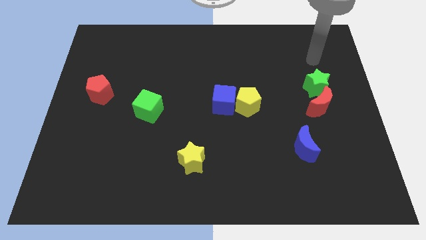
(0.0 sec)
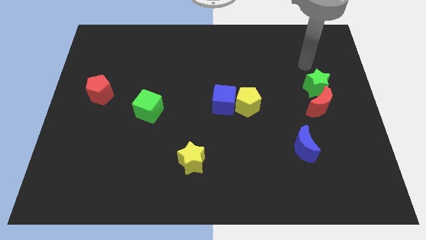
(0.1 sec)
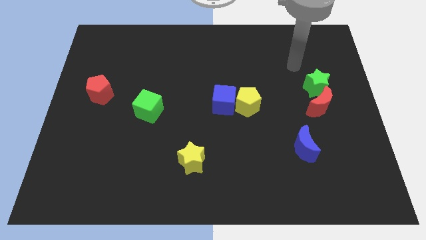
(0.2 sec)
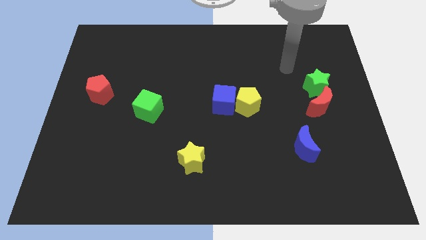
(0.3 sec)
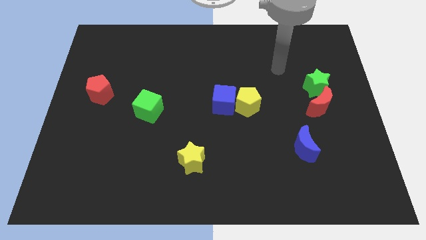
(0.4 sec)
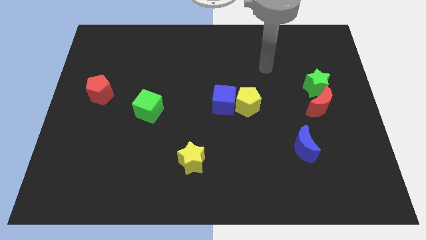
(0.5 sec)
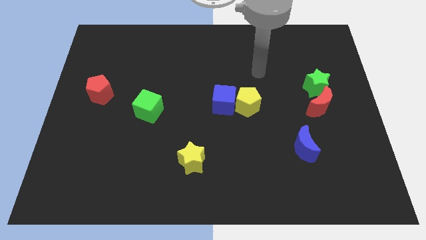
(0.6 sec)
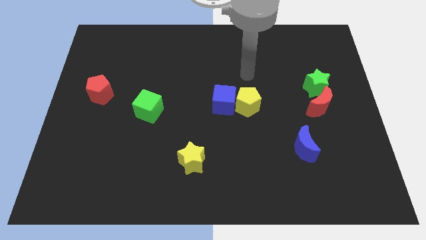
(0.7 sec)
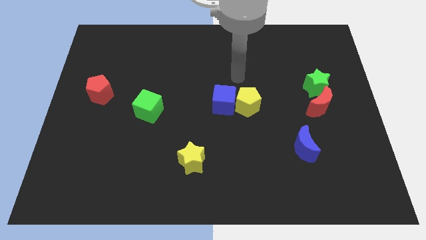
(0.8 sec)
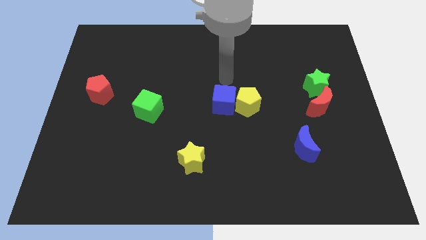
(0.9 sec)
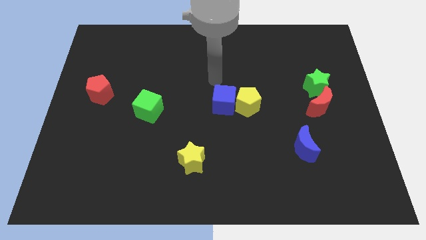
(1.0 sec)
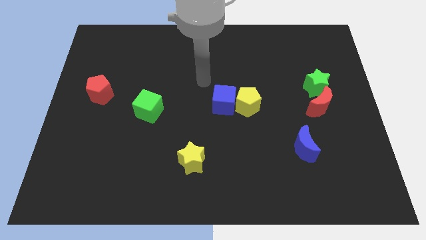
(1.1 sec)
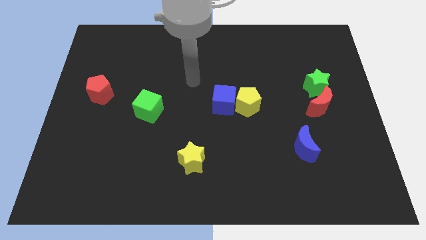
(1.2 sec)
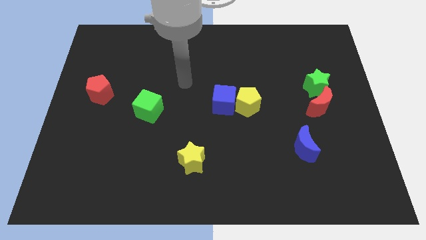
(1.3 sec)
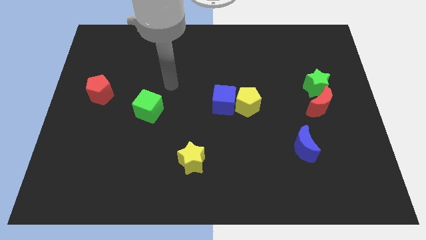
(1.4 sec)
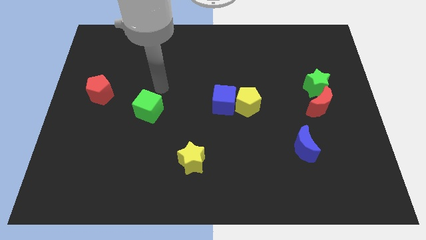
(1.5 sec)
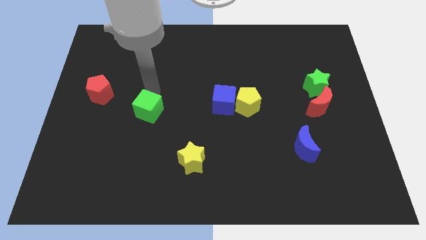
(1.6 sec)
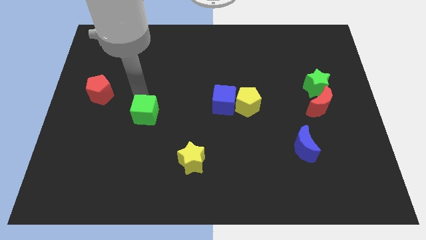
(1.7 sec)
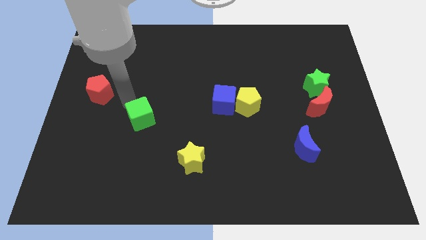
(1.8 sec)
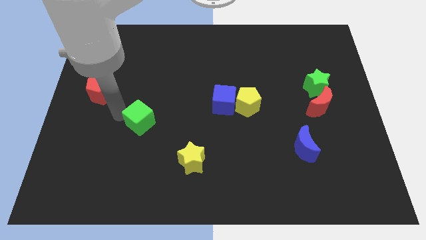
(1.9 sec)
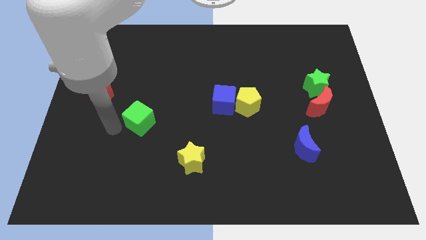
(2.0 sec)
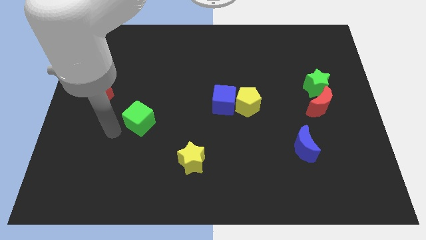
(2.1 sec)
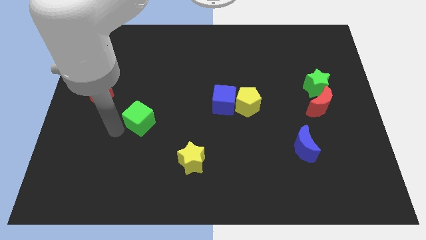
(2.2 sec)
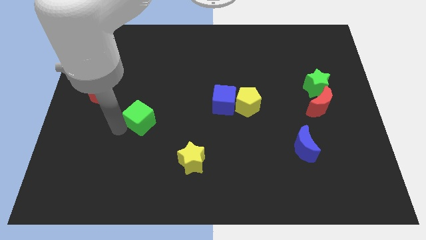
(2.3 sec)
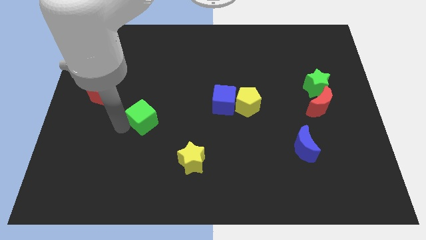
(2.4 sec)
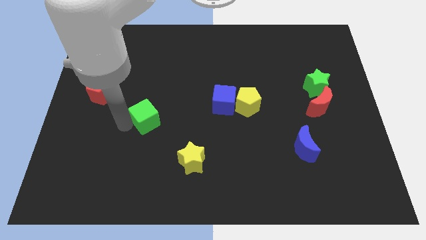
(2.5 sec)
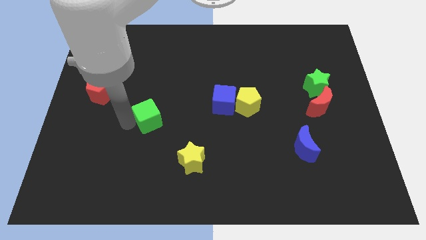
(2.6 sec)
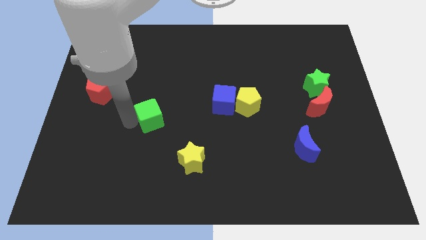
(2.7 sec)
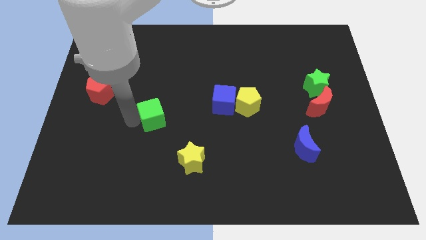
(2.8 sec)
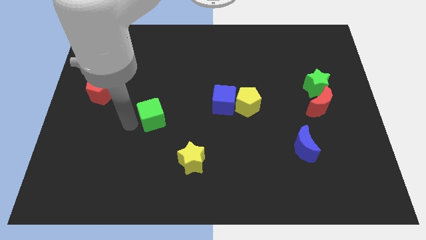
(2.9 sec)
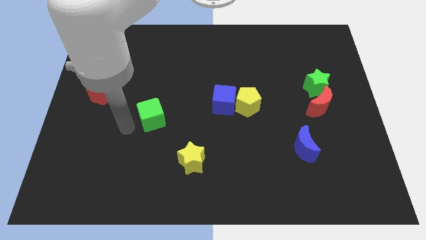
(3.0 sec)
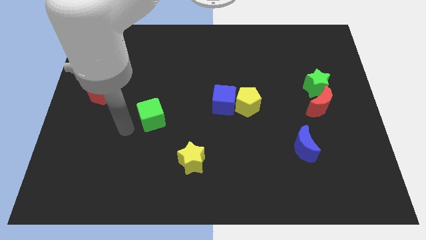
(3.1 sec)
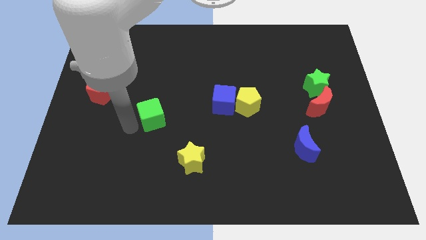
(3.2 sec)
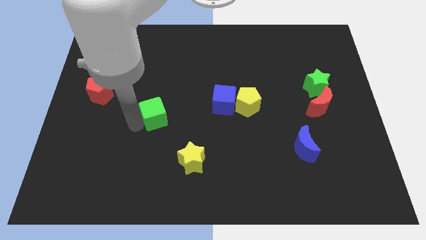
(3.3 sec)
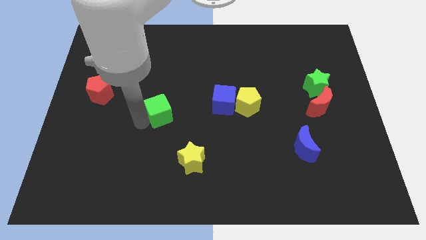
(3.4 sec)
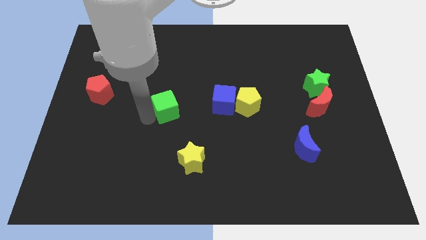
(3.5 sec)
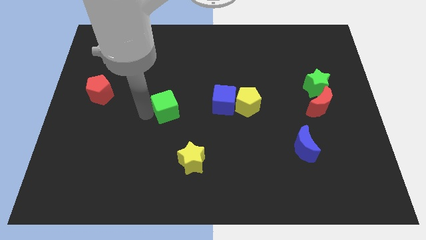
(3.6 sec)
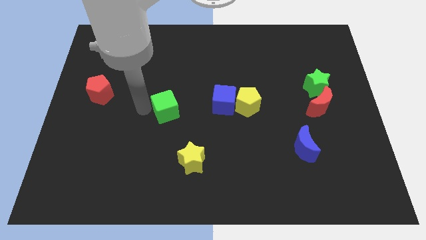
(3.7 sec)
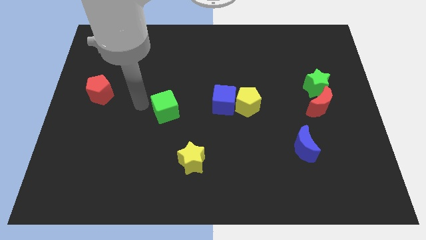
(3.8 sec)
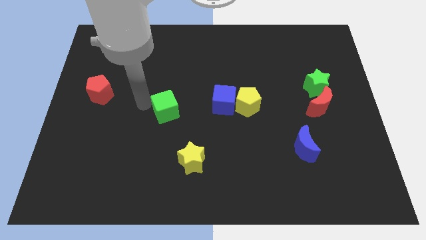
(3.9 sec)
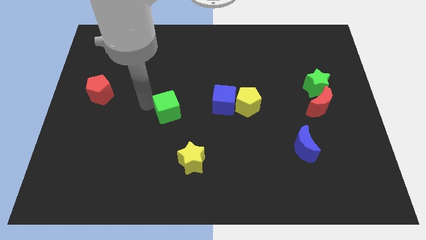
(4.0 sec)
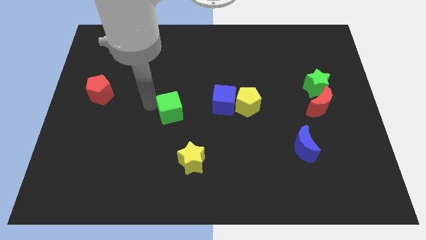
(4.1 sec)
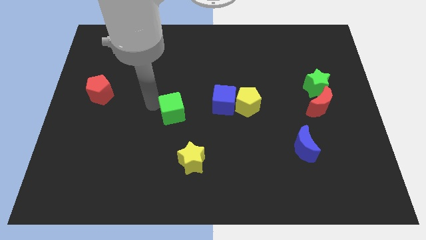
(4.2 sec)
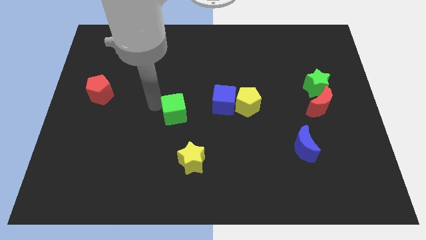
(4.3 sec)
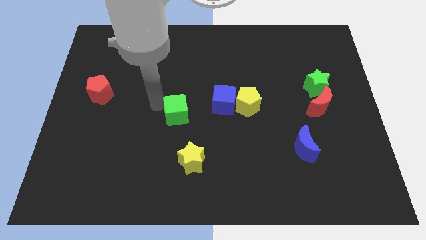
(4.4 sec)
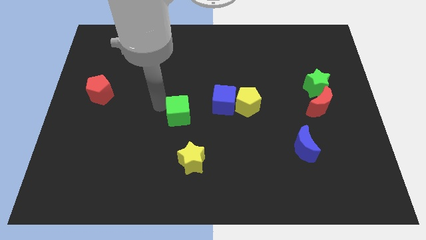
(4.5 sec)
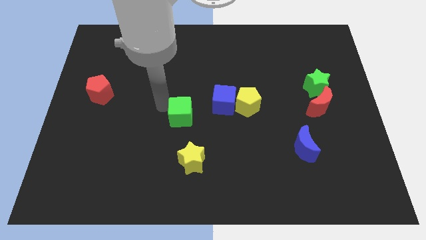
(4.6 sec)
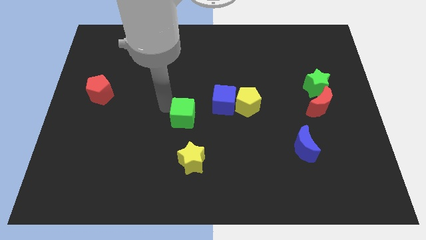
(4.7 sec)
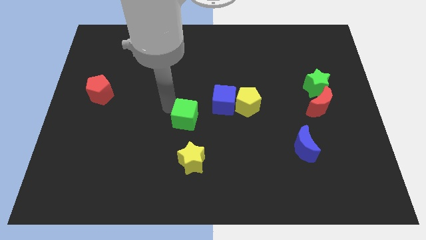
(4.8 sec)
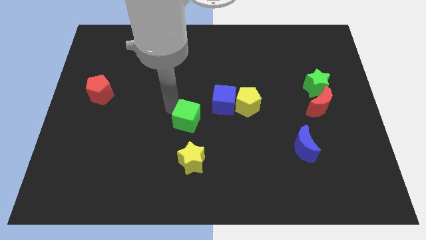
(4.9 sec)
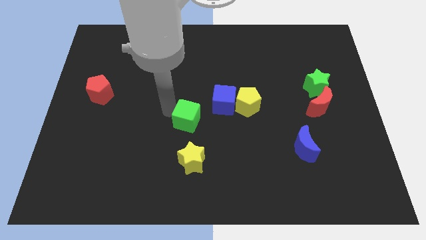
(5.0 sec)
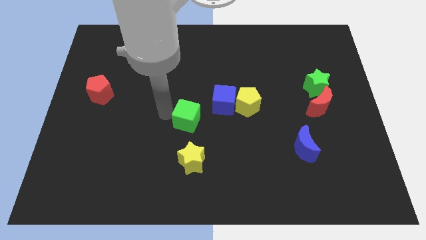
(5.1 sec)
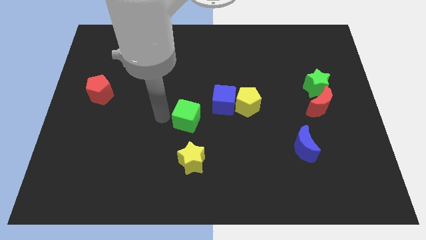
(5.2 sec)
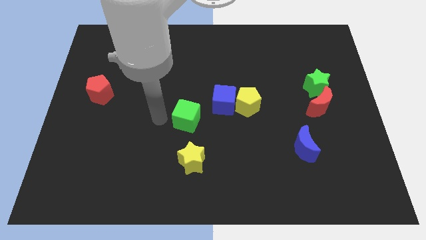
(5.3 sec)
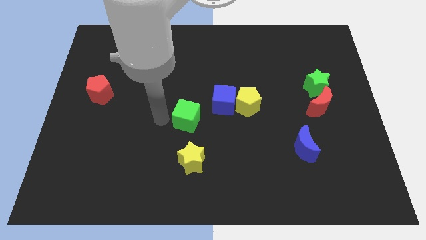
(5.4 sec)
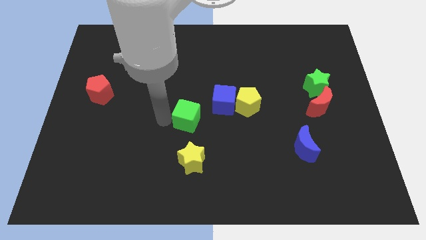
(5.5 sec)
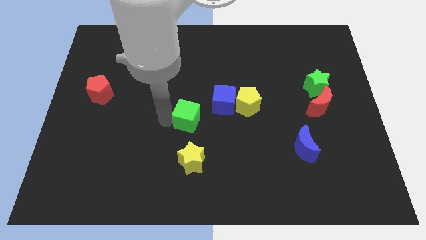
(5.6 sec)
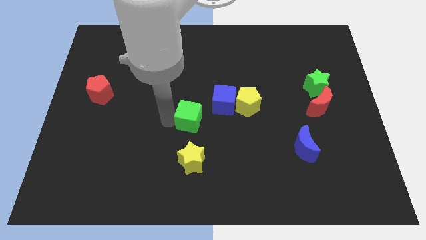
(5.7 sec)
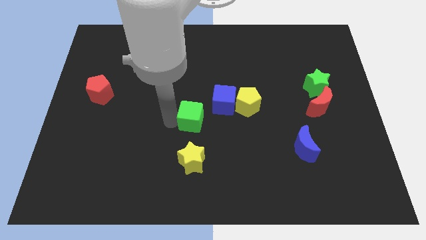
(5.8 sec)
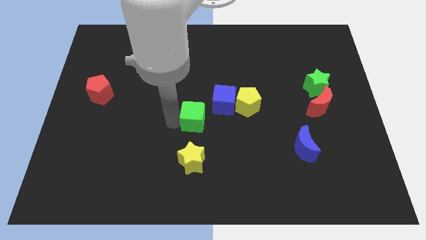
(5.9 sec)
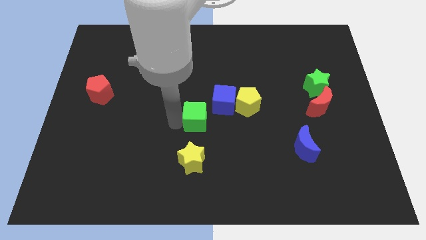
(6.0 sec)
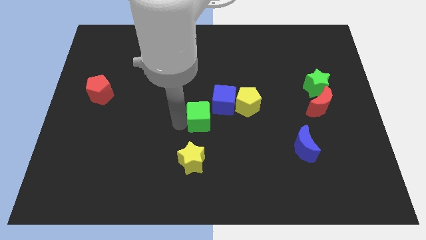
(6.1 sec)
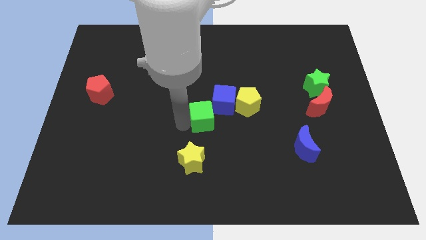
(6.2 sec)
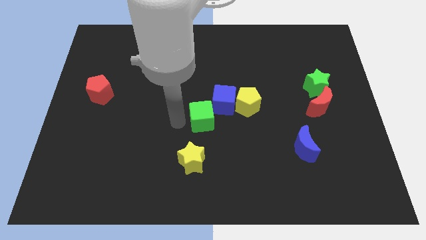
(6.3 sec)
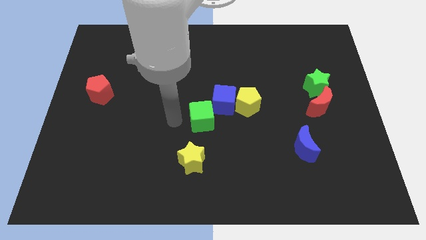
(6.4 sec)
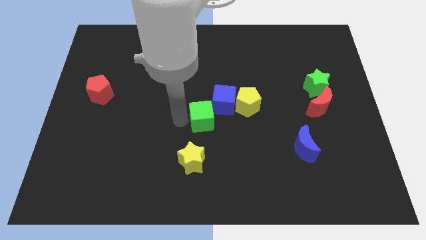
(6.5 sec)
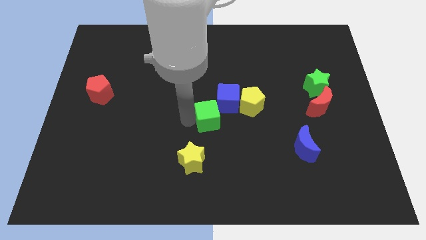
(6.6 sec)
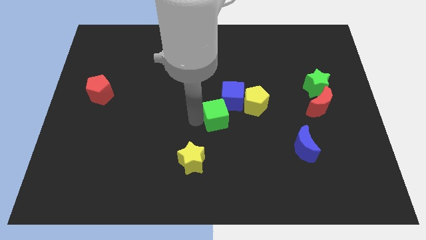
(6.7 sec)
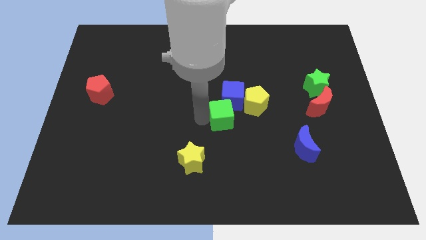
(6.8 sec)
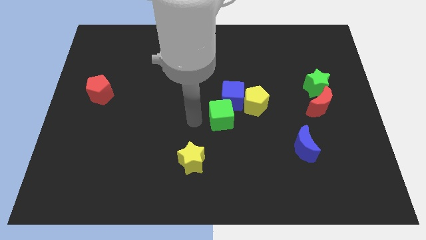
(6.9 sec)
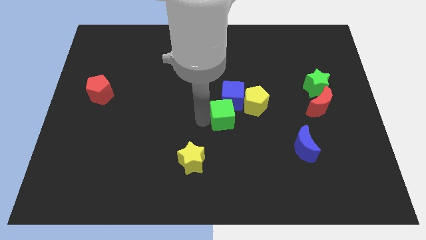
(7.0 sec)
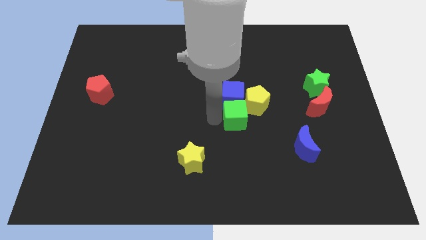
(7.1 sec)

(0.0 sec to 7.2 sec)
move the green cube right

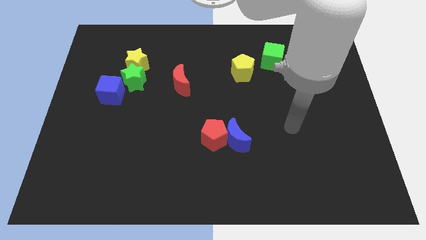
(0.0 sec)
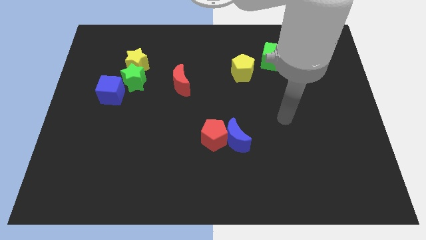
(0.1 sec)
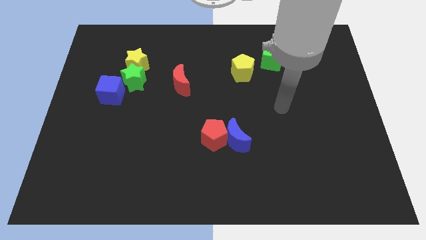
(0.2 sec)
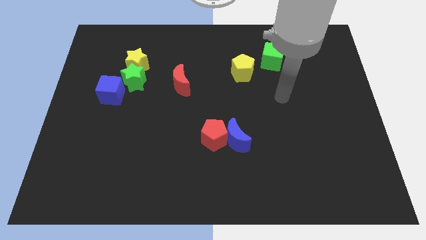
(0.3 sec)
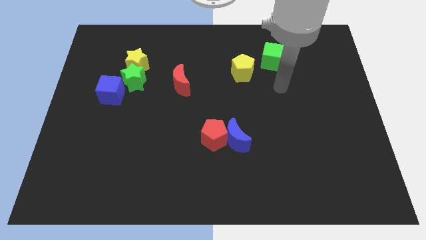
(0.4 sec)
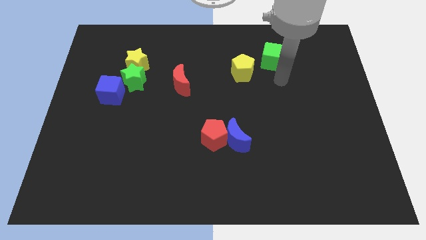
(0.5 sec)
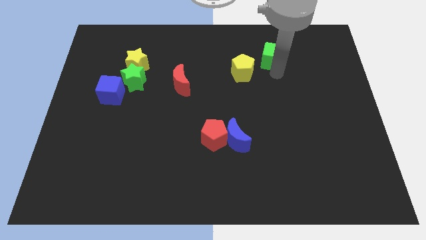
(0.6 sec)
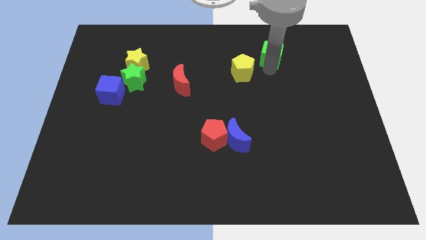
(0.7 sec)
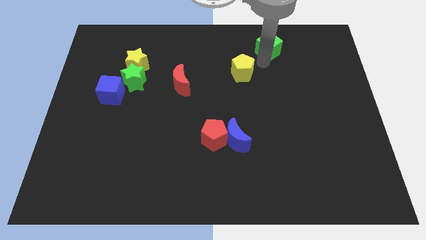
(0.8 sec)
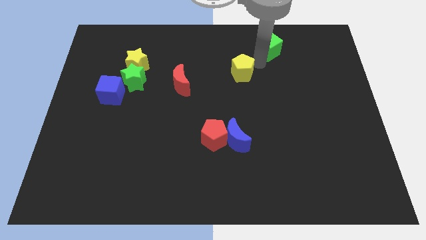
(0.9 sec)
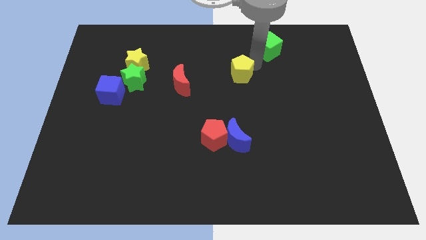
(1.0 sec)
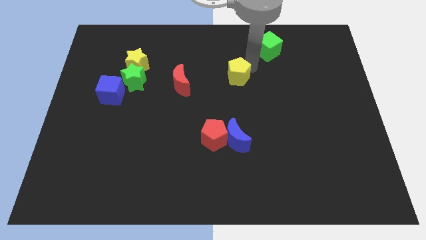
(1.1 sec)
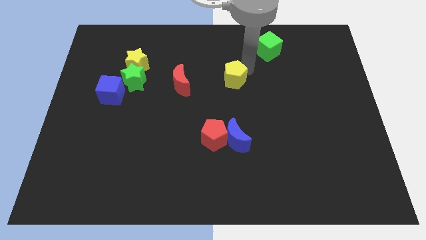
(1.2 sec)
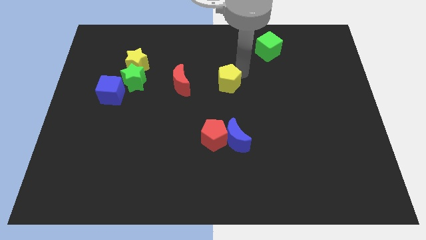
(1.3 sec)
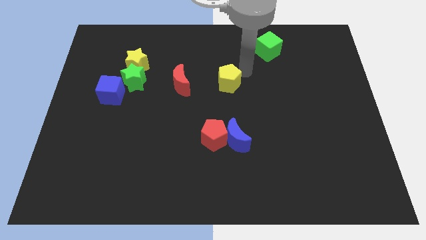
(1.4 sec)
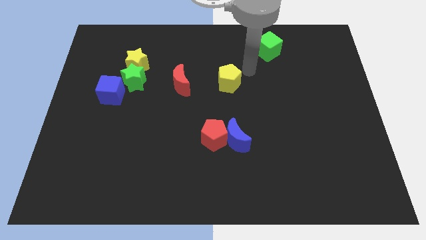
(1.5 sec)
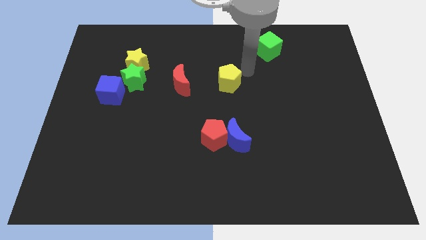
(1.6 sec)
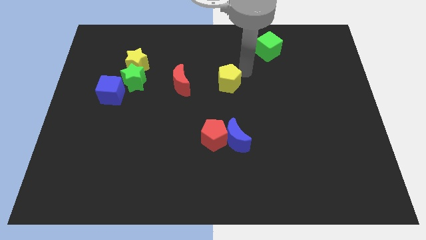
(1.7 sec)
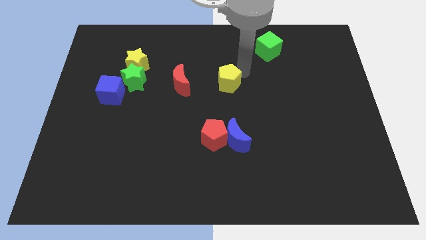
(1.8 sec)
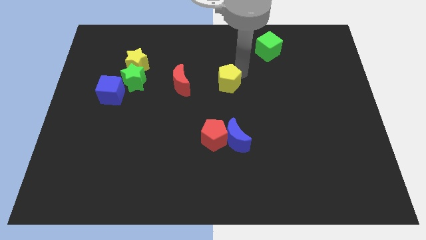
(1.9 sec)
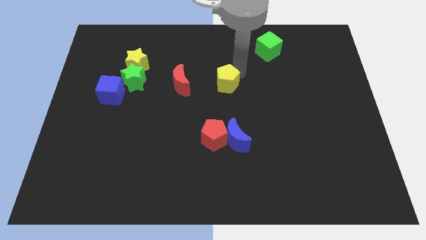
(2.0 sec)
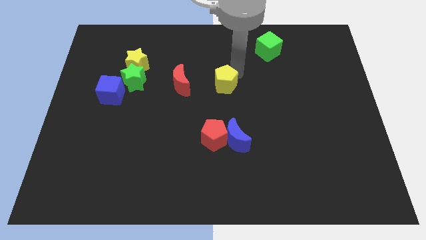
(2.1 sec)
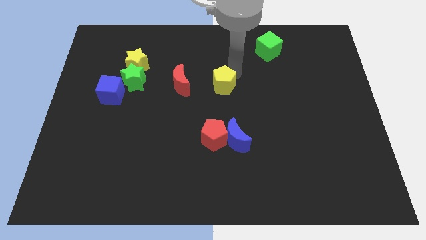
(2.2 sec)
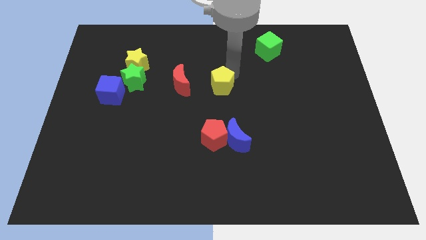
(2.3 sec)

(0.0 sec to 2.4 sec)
push the yellow pentagon downwards and then left a little bit
